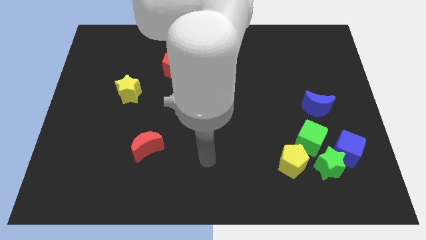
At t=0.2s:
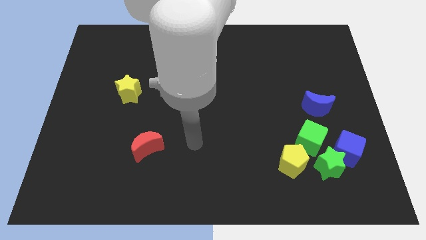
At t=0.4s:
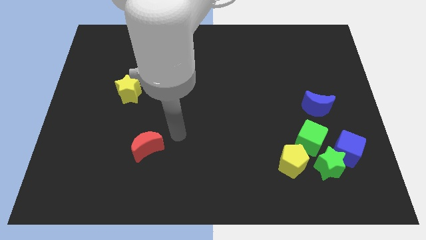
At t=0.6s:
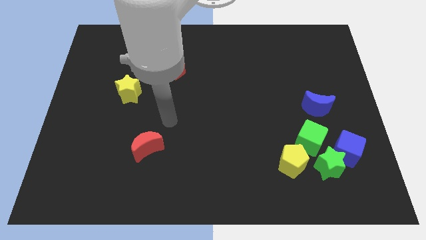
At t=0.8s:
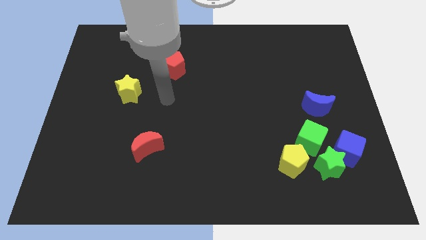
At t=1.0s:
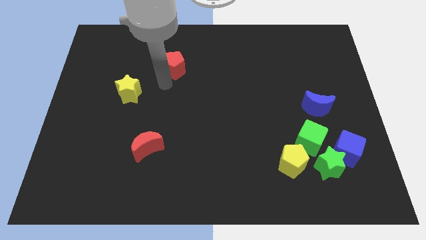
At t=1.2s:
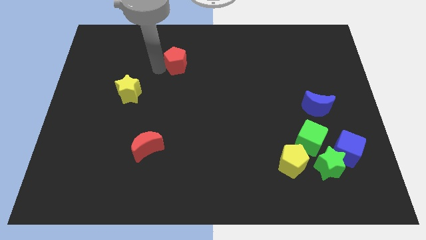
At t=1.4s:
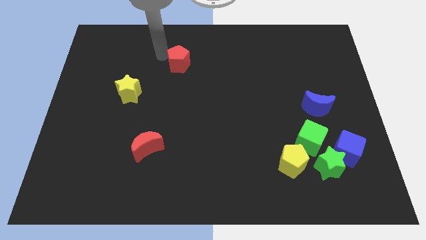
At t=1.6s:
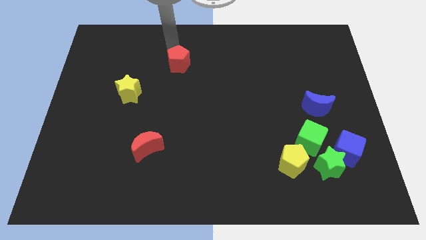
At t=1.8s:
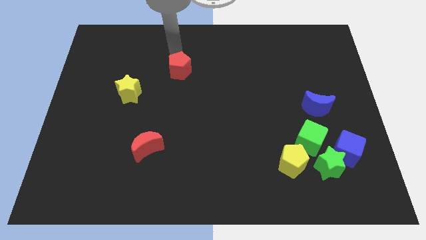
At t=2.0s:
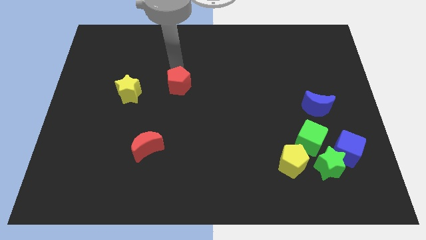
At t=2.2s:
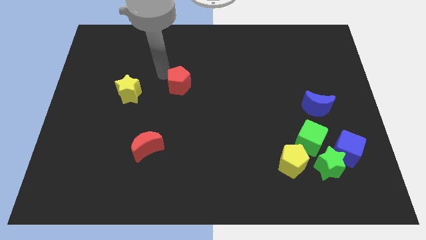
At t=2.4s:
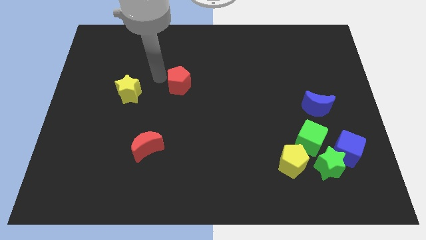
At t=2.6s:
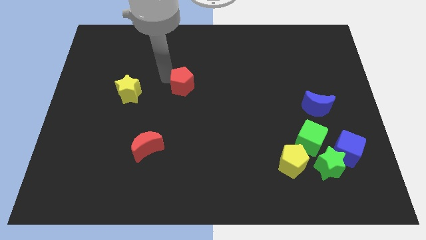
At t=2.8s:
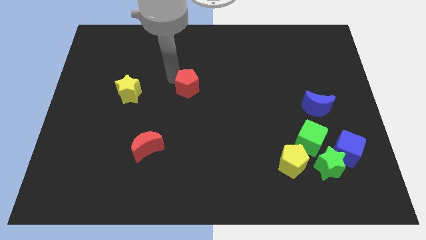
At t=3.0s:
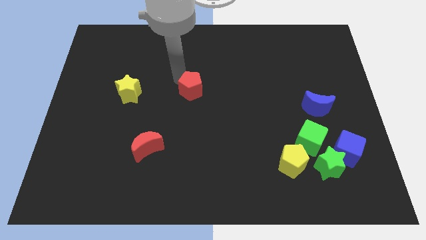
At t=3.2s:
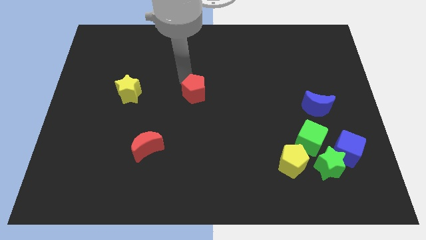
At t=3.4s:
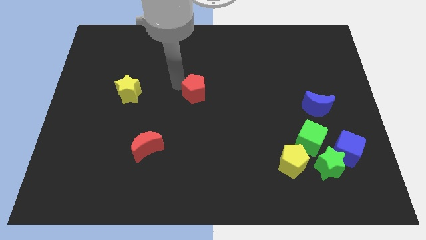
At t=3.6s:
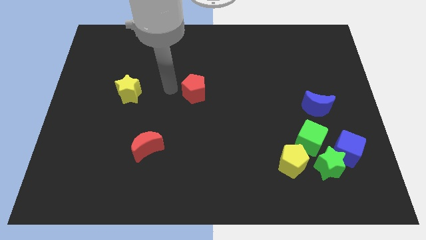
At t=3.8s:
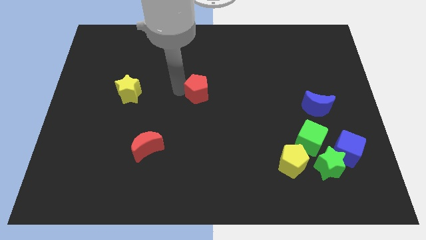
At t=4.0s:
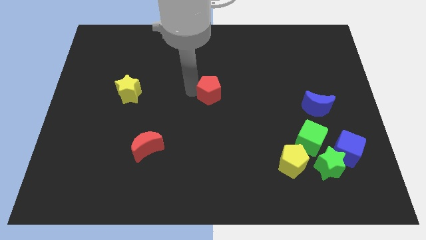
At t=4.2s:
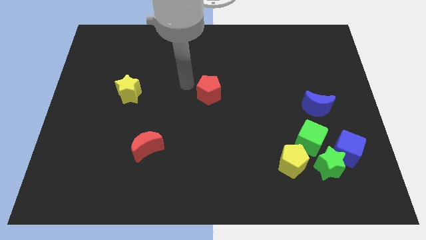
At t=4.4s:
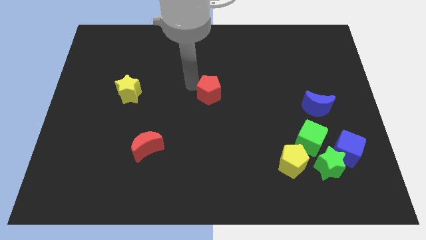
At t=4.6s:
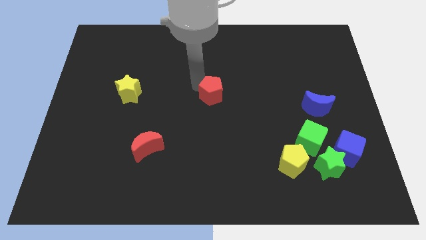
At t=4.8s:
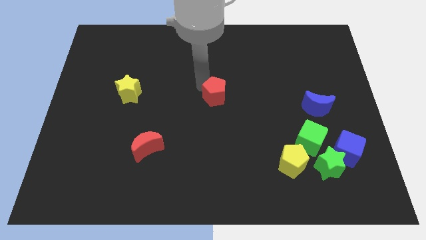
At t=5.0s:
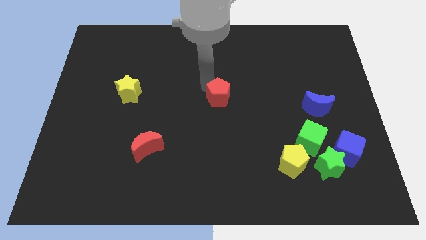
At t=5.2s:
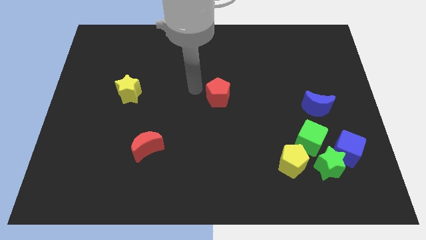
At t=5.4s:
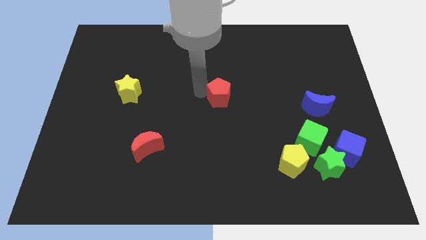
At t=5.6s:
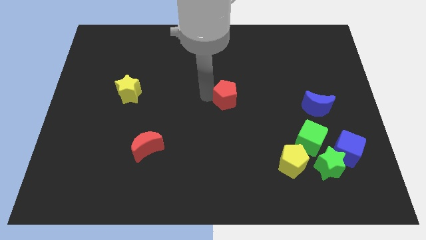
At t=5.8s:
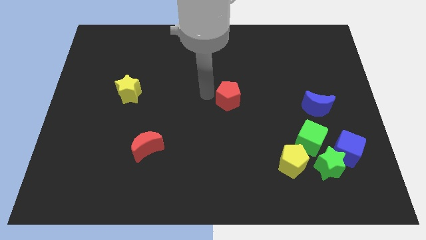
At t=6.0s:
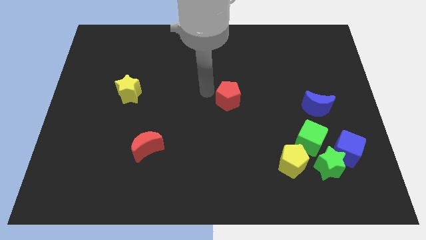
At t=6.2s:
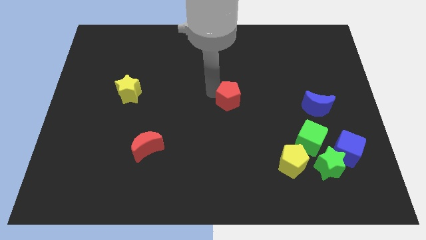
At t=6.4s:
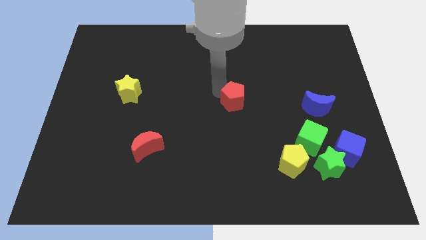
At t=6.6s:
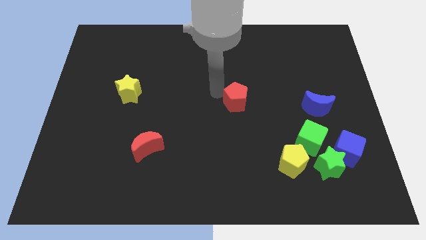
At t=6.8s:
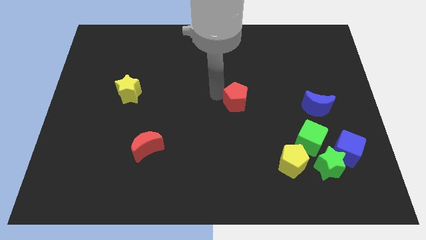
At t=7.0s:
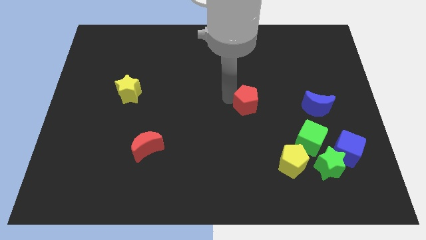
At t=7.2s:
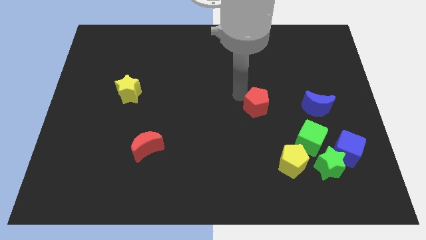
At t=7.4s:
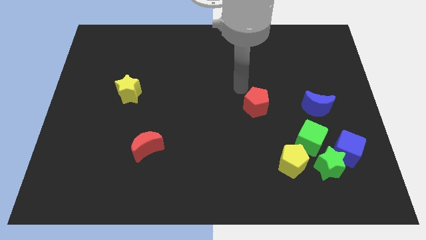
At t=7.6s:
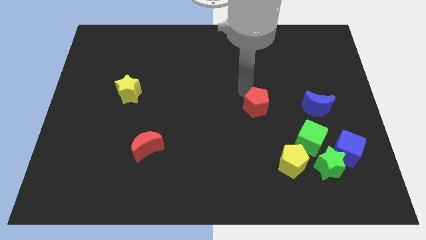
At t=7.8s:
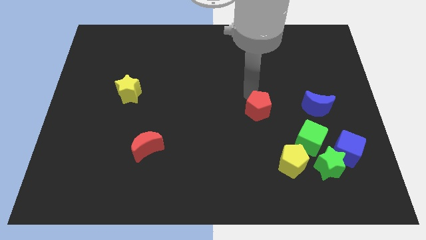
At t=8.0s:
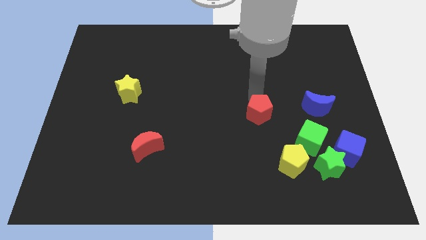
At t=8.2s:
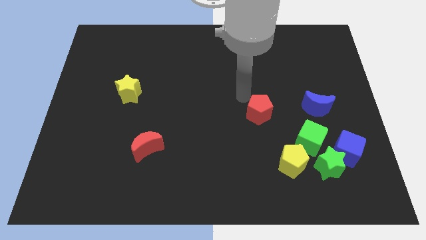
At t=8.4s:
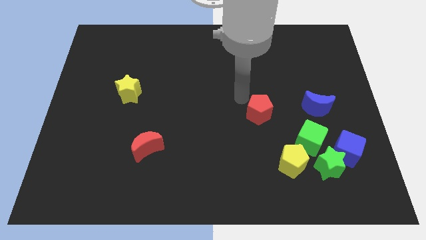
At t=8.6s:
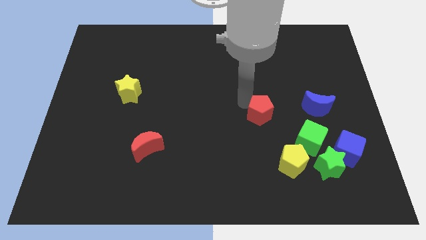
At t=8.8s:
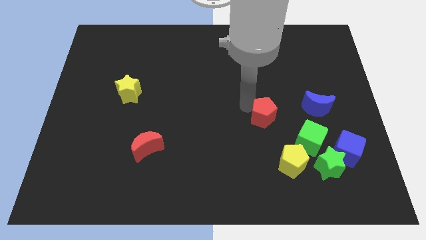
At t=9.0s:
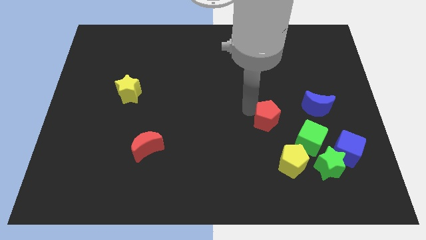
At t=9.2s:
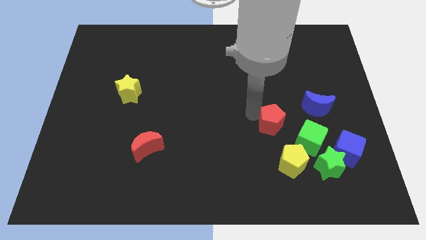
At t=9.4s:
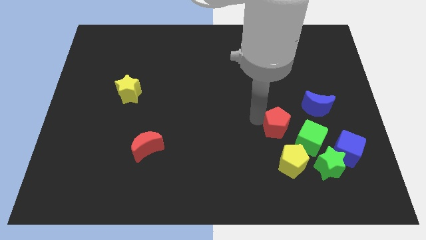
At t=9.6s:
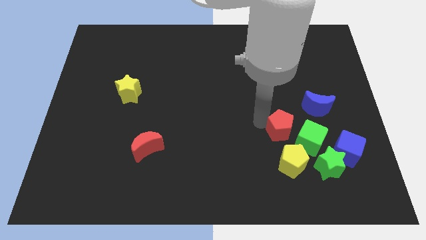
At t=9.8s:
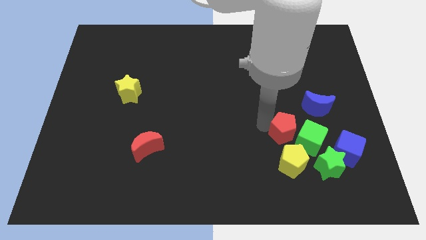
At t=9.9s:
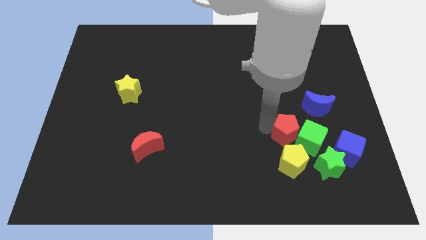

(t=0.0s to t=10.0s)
put the red pentagon close to the green cube

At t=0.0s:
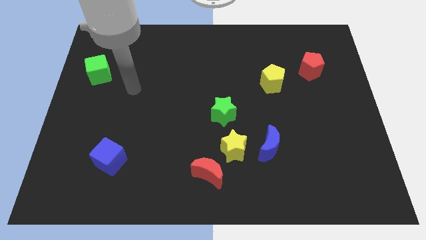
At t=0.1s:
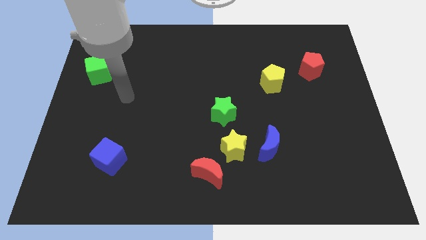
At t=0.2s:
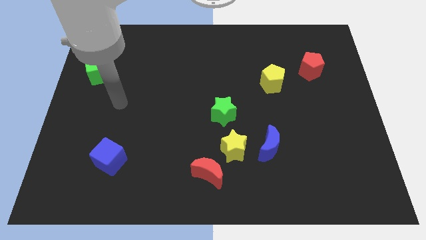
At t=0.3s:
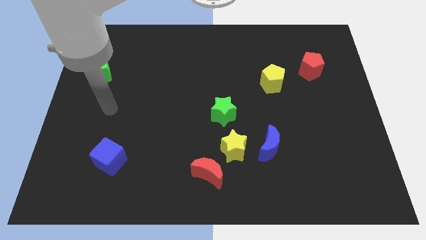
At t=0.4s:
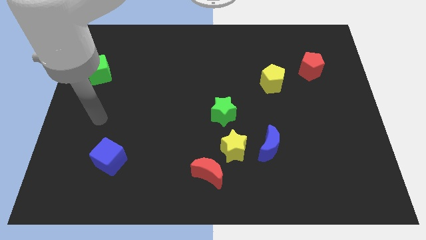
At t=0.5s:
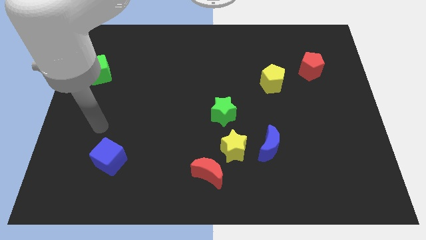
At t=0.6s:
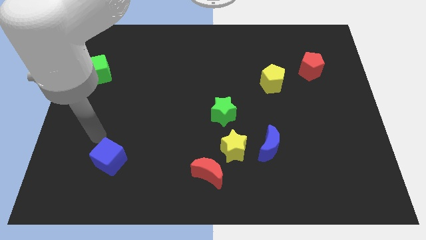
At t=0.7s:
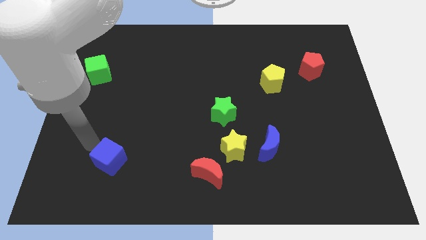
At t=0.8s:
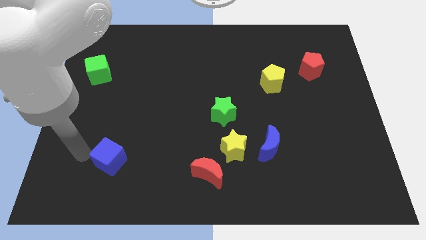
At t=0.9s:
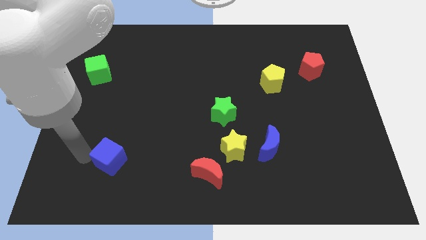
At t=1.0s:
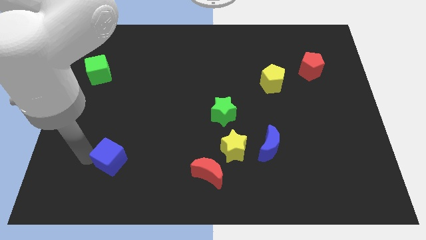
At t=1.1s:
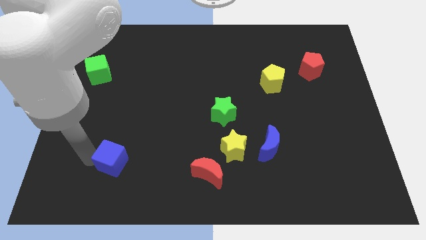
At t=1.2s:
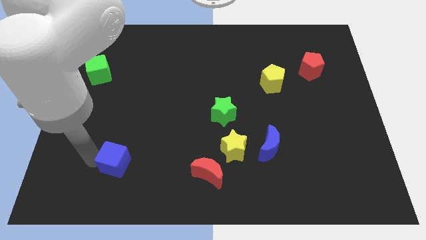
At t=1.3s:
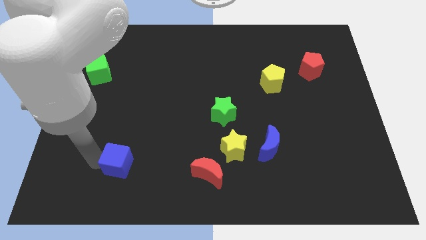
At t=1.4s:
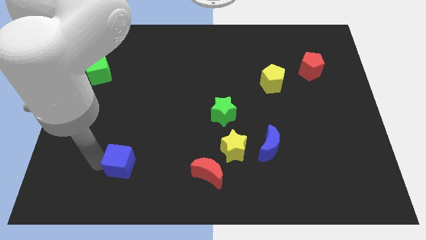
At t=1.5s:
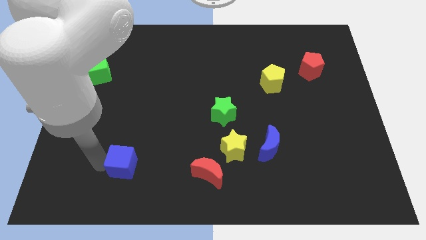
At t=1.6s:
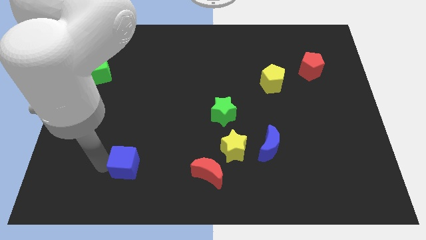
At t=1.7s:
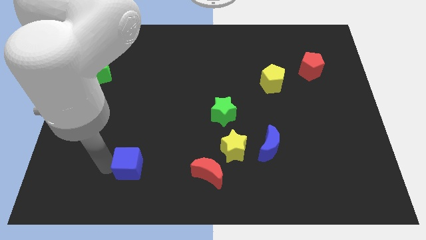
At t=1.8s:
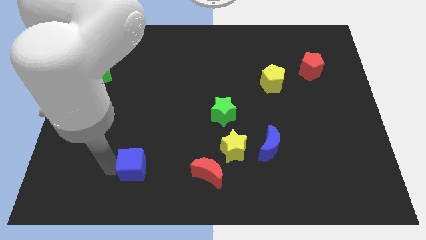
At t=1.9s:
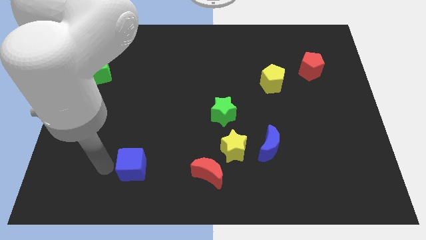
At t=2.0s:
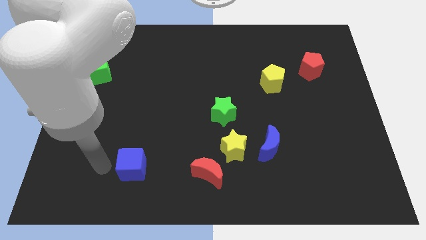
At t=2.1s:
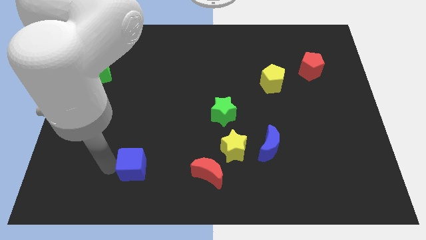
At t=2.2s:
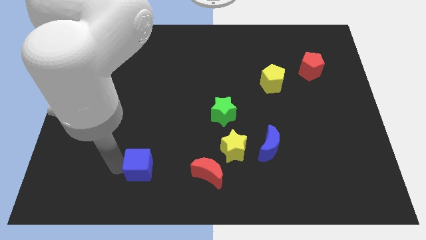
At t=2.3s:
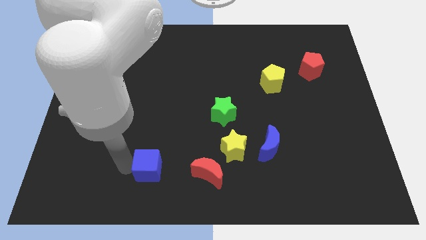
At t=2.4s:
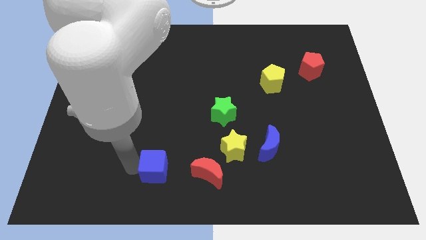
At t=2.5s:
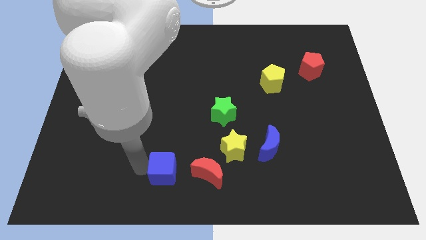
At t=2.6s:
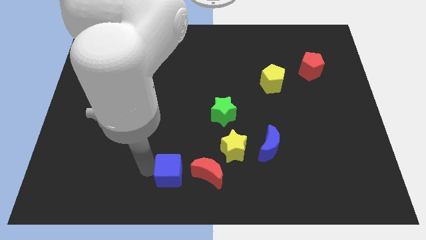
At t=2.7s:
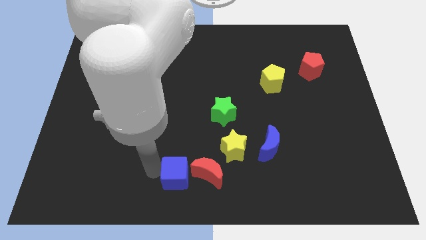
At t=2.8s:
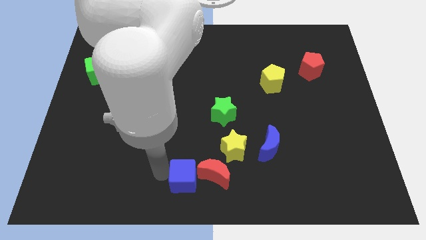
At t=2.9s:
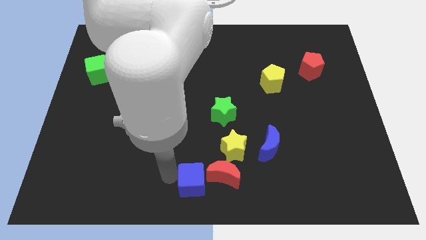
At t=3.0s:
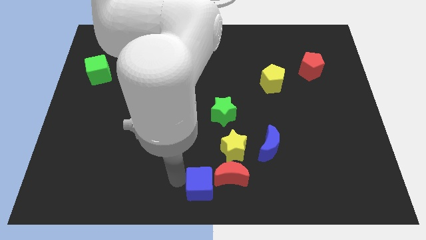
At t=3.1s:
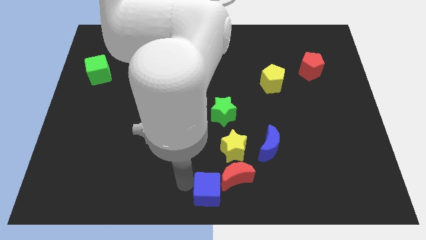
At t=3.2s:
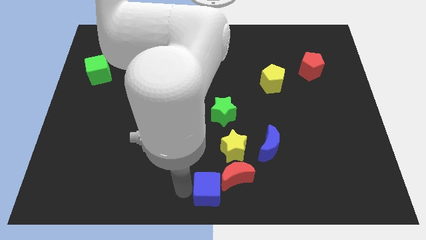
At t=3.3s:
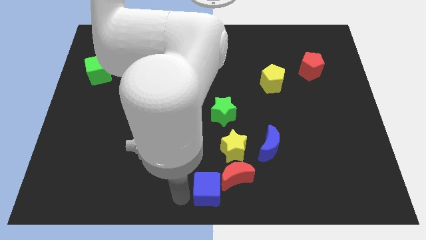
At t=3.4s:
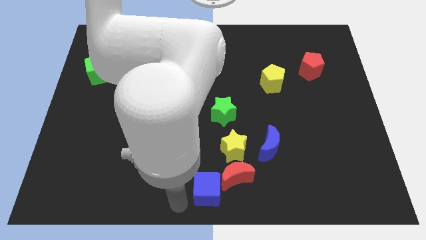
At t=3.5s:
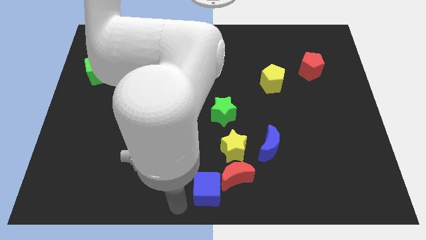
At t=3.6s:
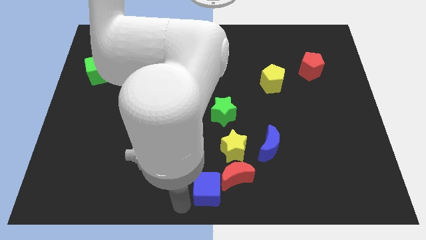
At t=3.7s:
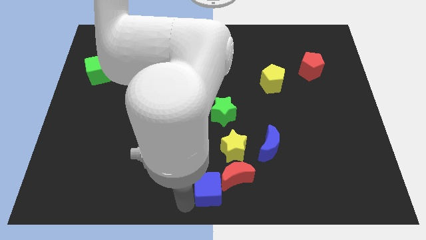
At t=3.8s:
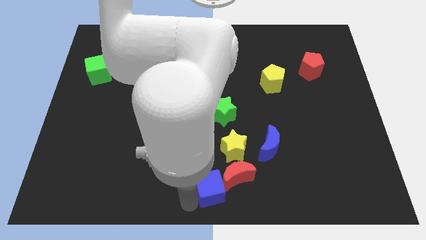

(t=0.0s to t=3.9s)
move the blue cube next to the red moon
